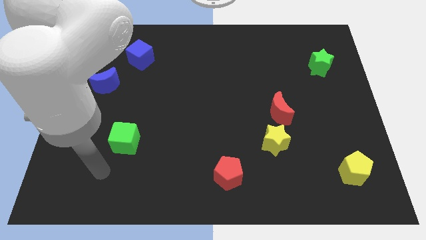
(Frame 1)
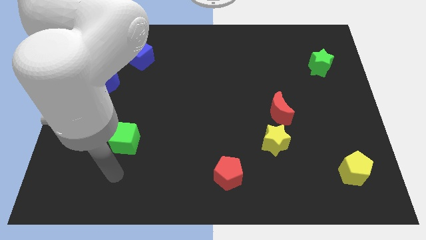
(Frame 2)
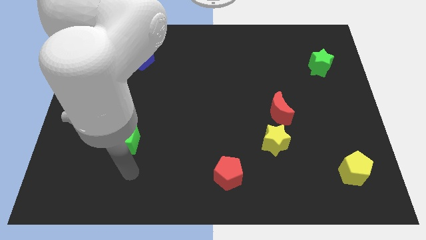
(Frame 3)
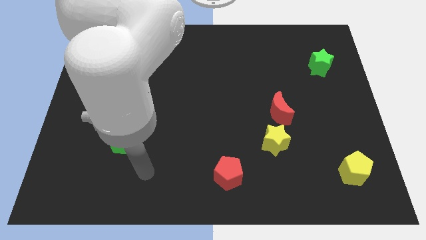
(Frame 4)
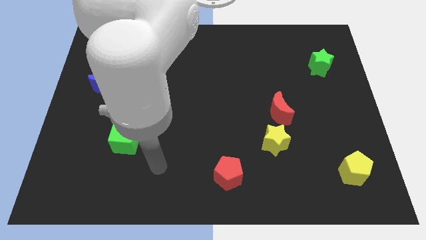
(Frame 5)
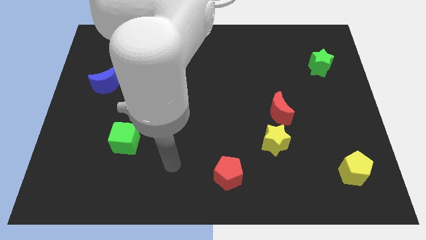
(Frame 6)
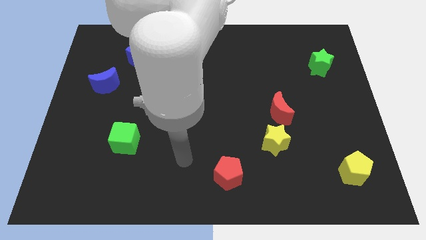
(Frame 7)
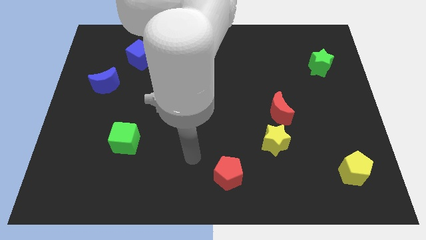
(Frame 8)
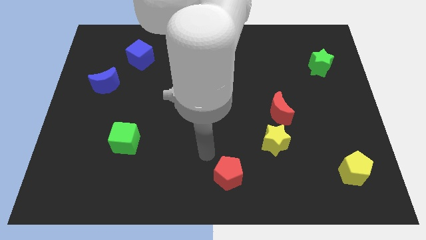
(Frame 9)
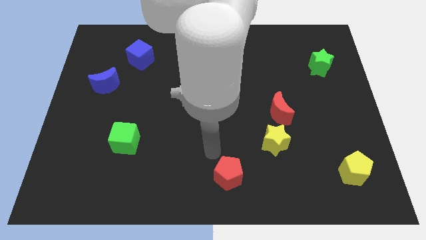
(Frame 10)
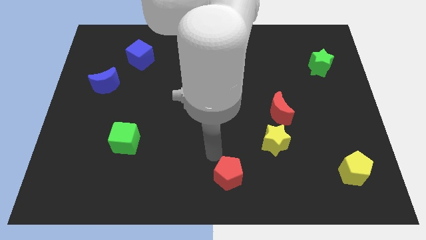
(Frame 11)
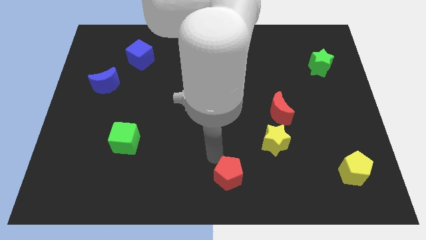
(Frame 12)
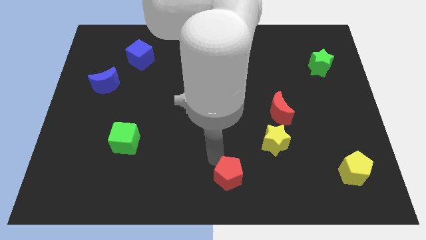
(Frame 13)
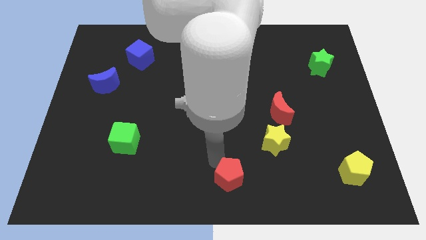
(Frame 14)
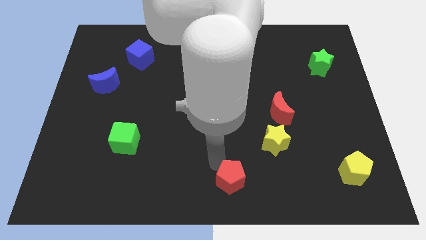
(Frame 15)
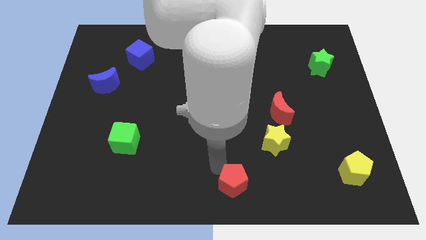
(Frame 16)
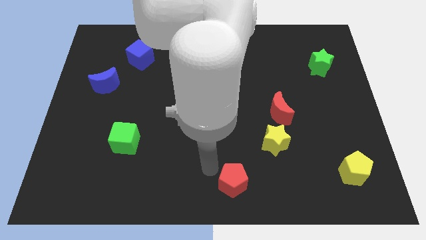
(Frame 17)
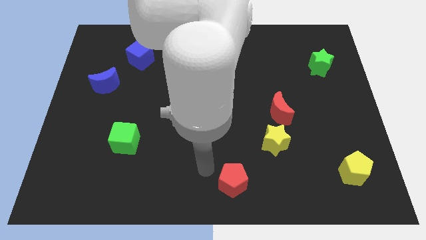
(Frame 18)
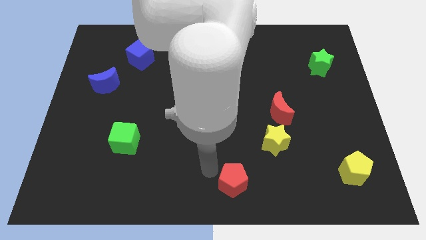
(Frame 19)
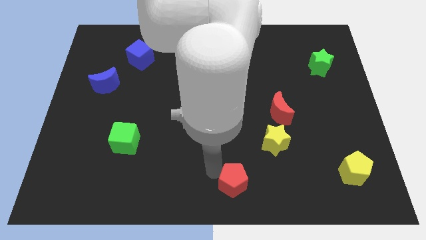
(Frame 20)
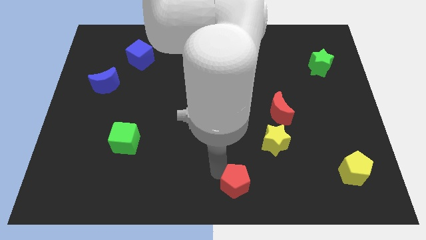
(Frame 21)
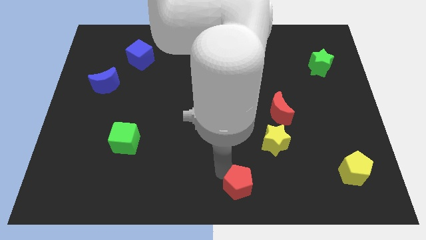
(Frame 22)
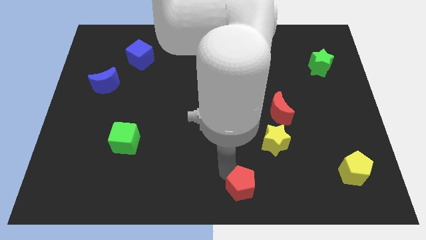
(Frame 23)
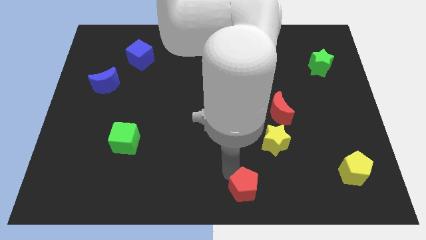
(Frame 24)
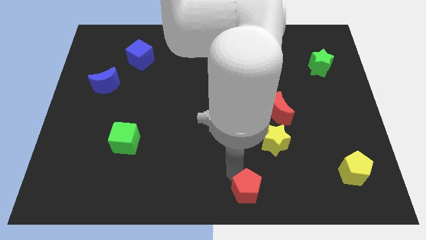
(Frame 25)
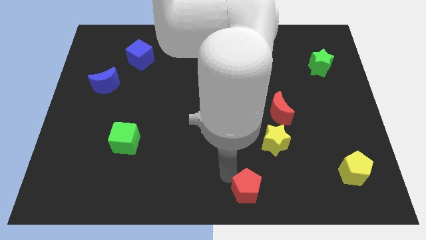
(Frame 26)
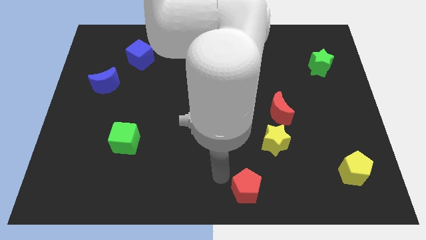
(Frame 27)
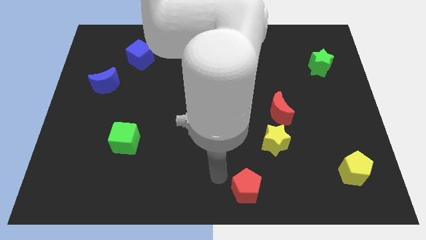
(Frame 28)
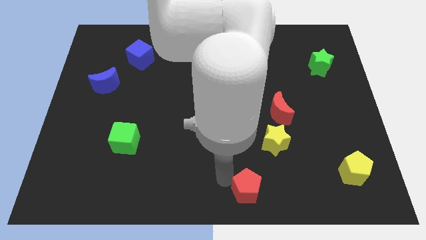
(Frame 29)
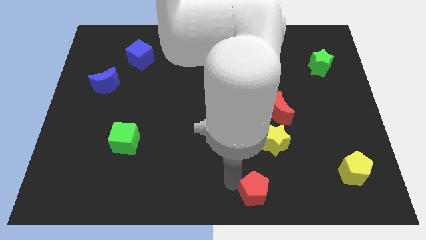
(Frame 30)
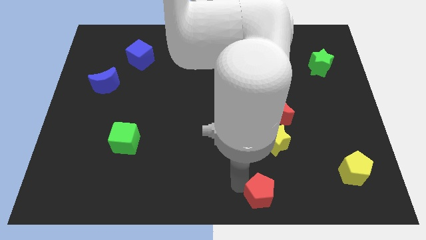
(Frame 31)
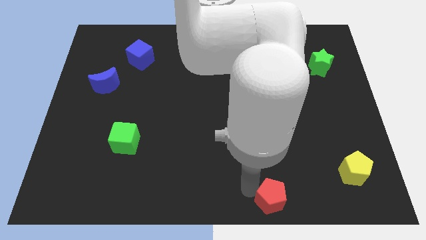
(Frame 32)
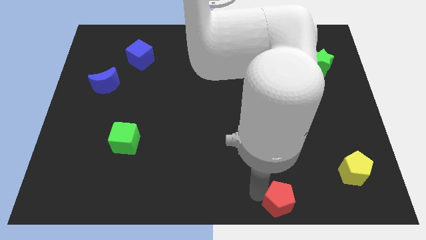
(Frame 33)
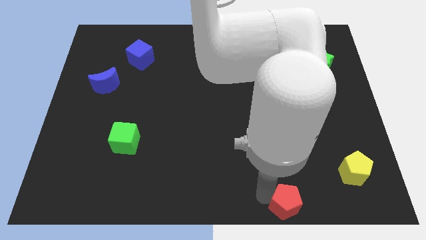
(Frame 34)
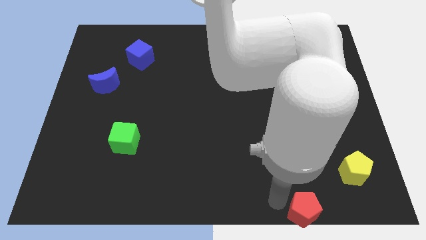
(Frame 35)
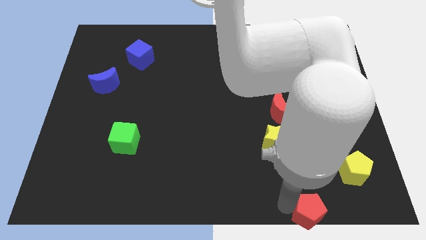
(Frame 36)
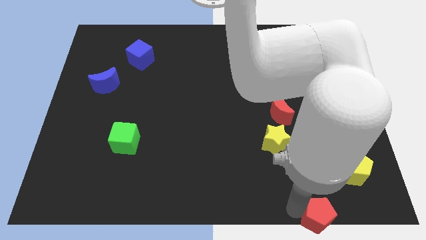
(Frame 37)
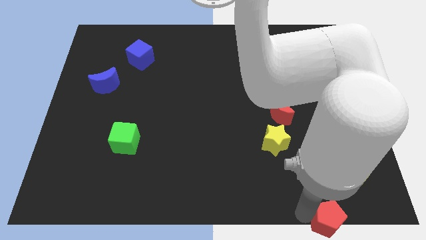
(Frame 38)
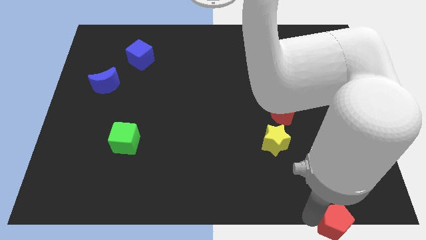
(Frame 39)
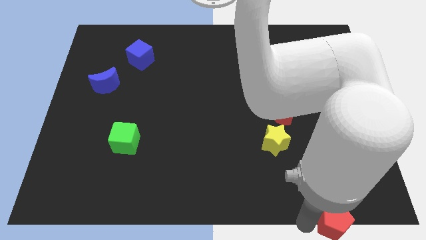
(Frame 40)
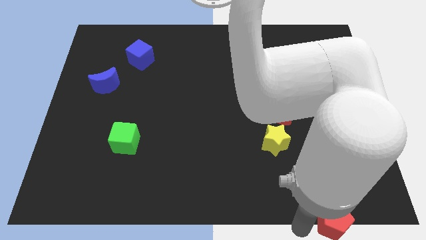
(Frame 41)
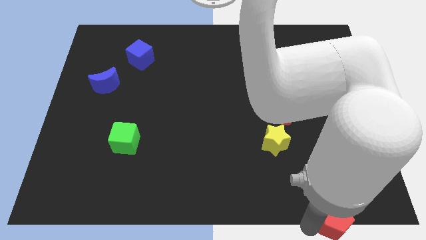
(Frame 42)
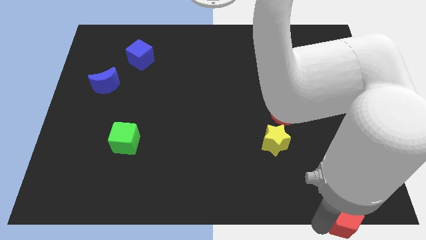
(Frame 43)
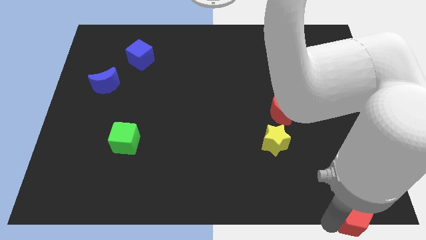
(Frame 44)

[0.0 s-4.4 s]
move the red pentagon to the lower right corner

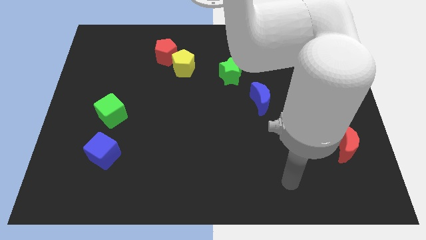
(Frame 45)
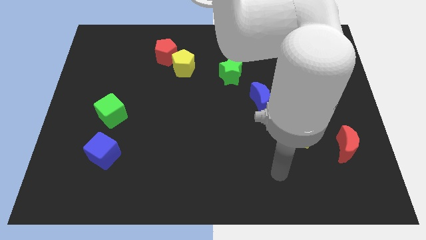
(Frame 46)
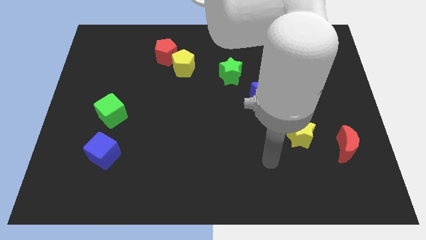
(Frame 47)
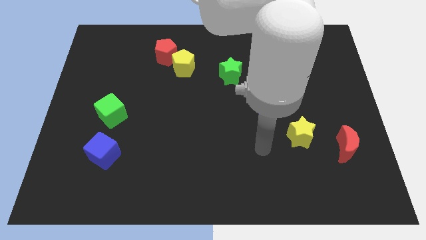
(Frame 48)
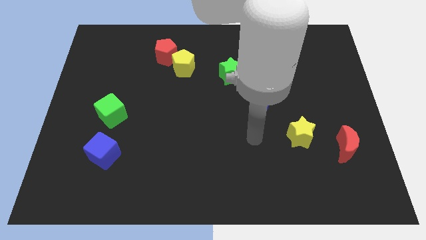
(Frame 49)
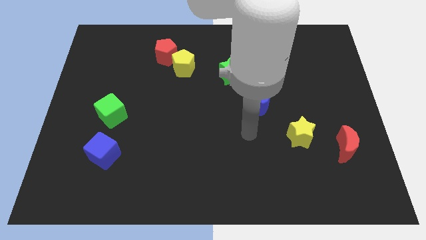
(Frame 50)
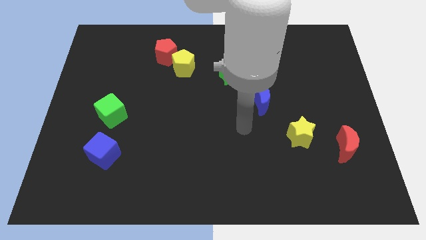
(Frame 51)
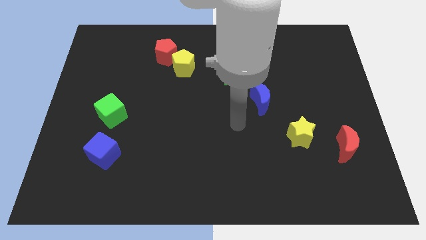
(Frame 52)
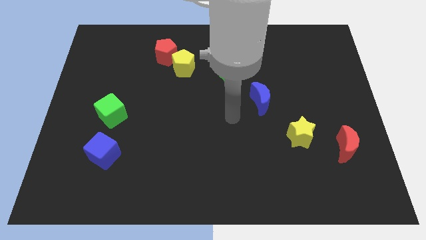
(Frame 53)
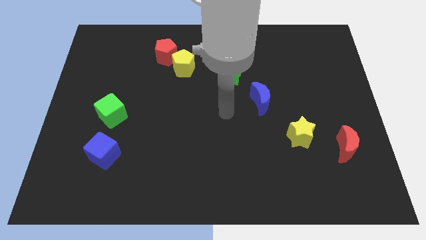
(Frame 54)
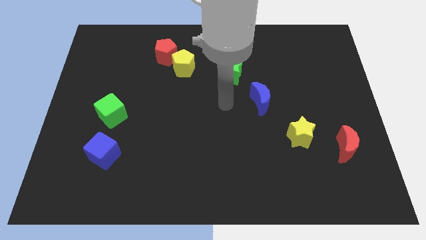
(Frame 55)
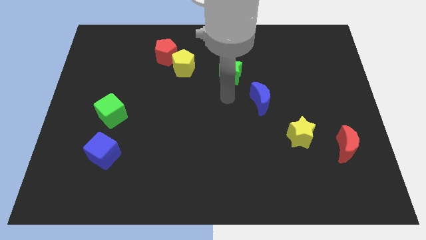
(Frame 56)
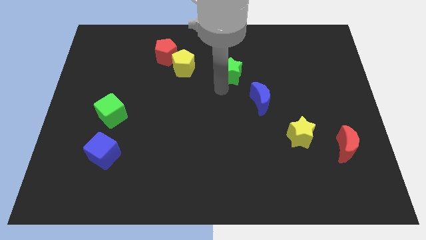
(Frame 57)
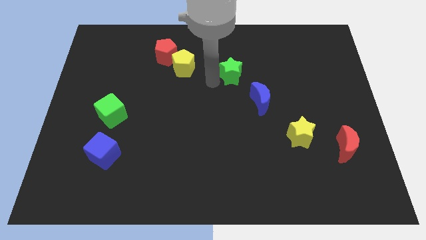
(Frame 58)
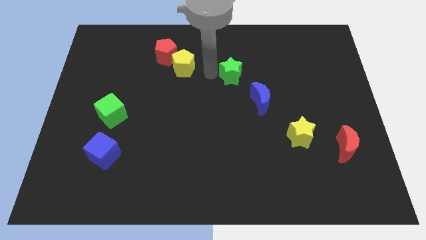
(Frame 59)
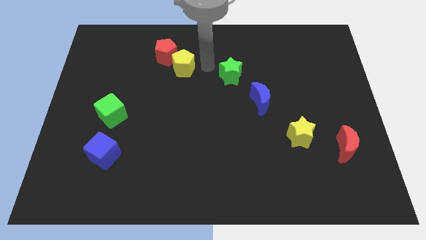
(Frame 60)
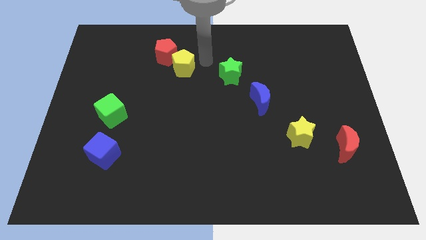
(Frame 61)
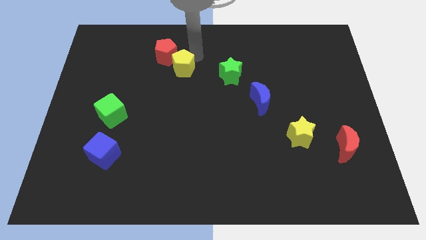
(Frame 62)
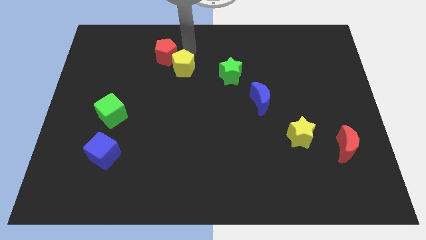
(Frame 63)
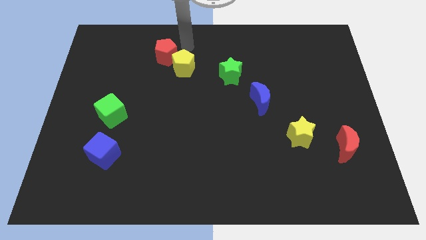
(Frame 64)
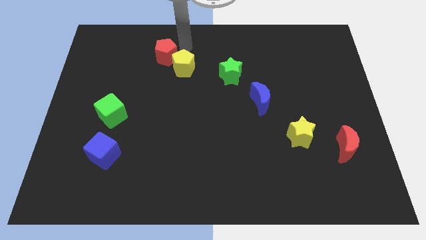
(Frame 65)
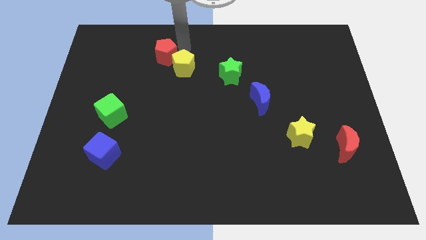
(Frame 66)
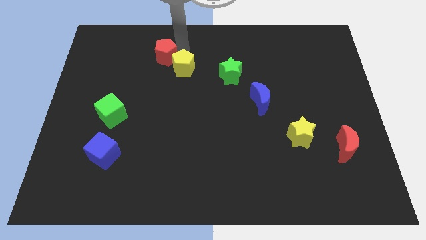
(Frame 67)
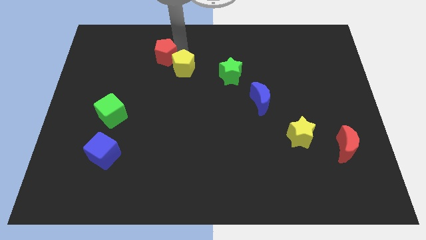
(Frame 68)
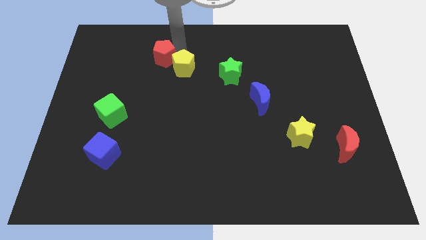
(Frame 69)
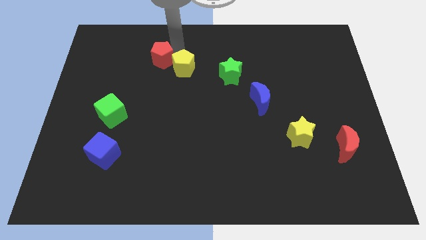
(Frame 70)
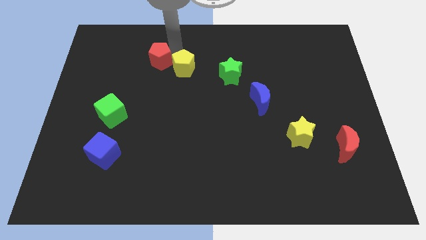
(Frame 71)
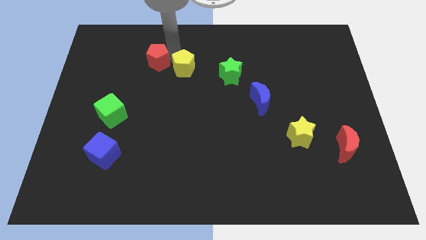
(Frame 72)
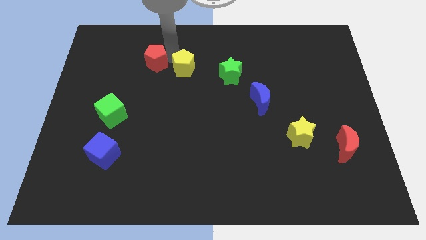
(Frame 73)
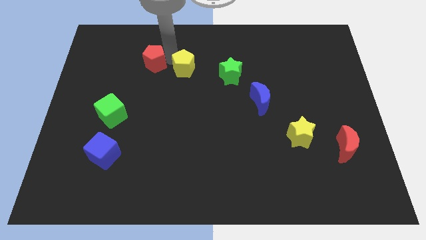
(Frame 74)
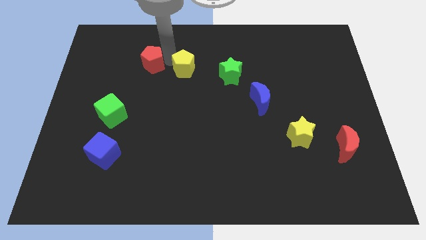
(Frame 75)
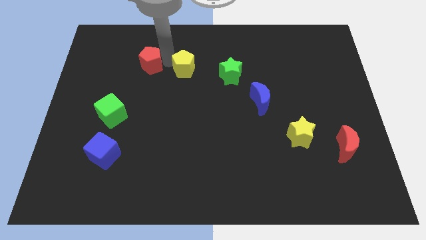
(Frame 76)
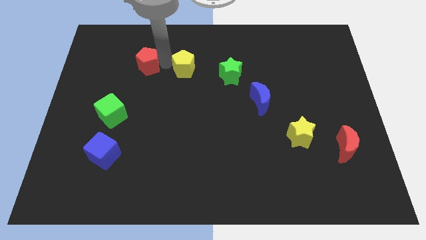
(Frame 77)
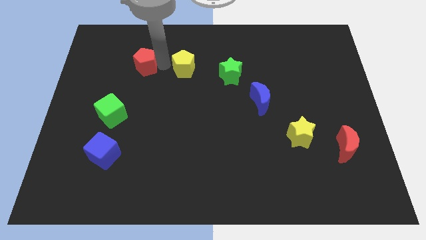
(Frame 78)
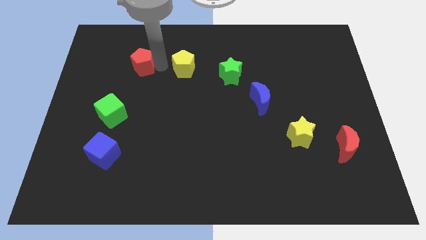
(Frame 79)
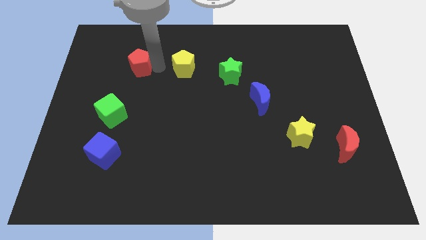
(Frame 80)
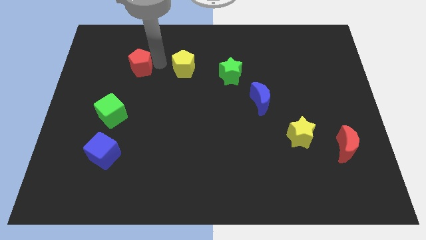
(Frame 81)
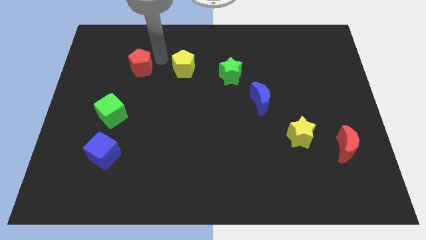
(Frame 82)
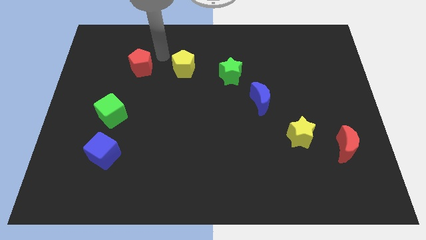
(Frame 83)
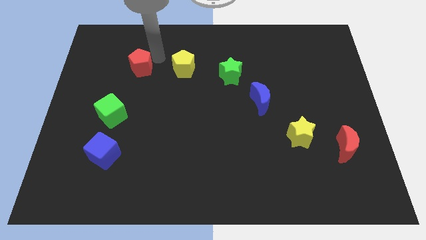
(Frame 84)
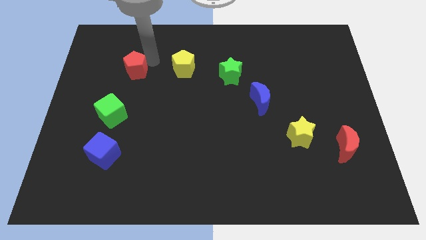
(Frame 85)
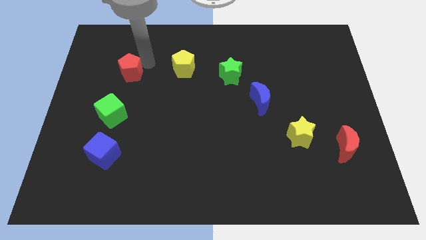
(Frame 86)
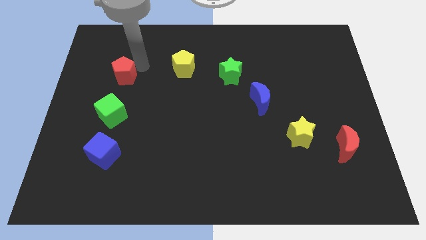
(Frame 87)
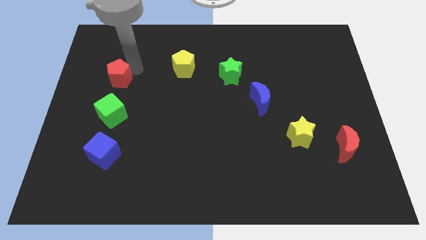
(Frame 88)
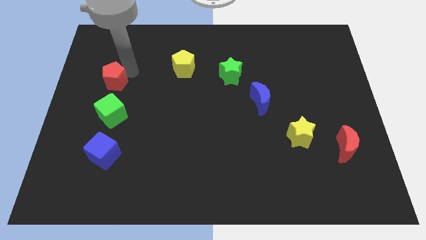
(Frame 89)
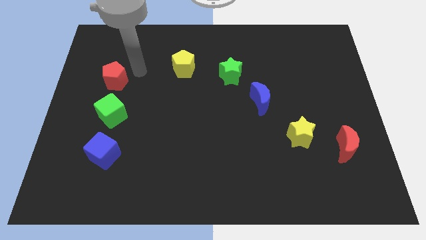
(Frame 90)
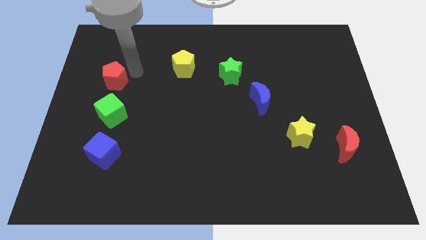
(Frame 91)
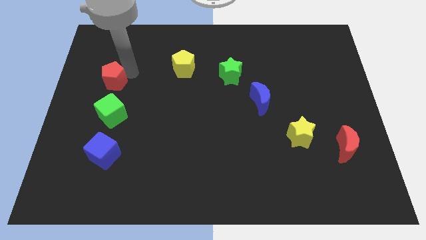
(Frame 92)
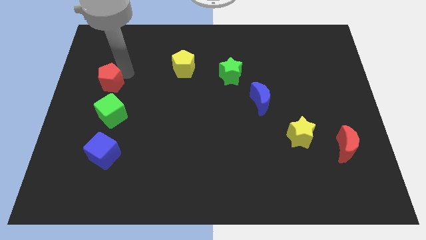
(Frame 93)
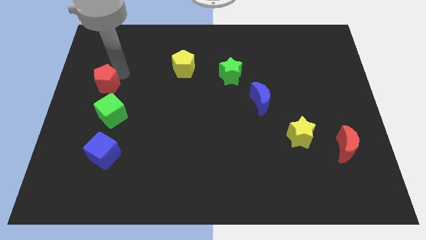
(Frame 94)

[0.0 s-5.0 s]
put the red pentagon to the left side of the board
